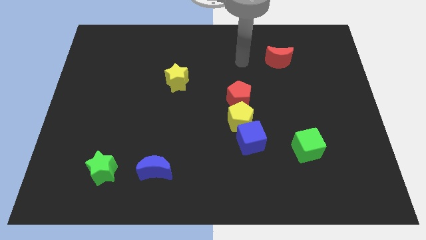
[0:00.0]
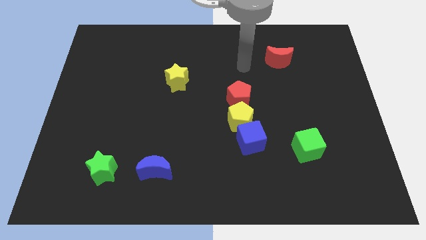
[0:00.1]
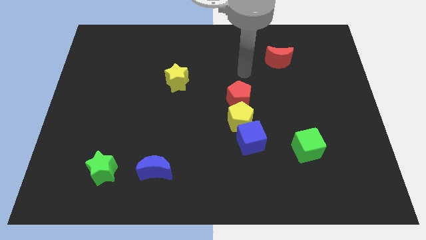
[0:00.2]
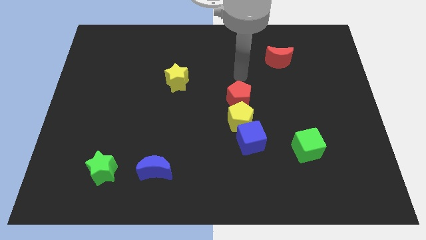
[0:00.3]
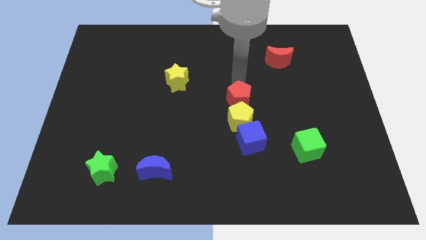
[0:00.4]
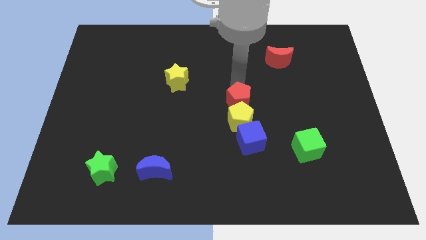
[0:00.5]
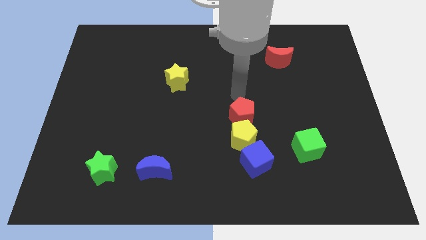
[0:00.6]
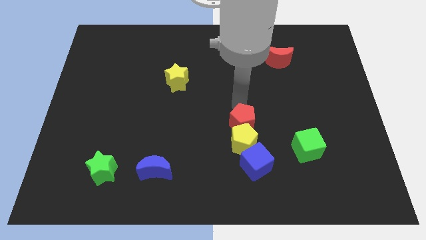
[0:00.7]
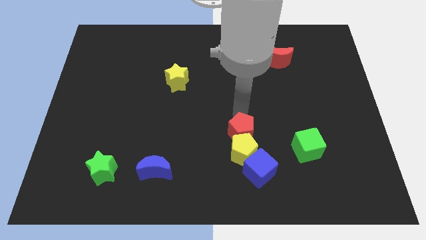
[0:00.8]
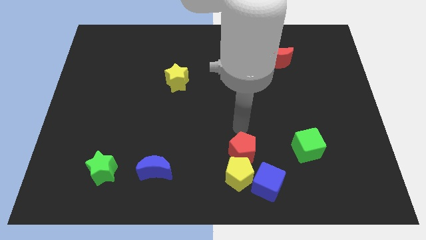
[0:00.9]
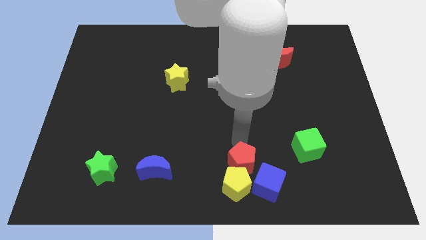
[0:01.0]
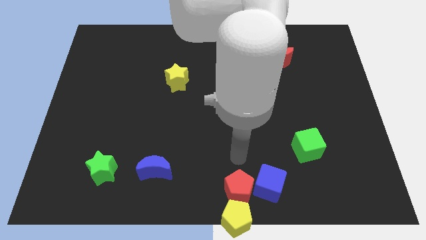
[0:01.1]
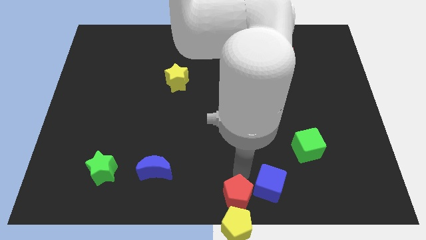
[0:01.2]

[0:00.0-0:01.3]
move the blue cube away from the yellow pentagon

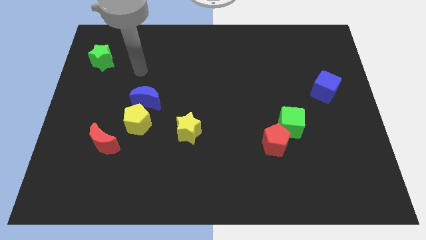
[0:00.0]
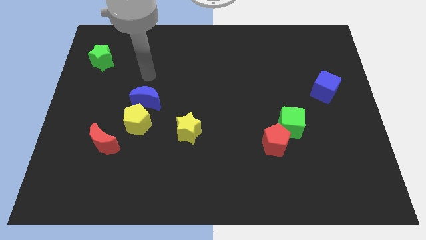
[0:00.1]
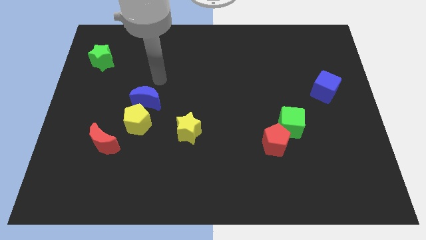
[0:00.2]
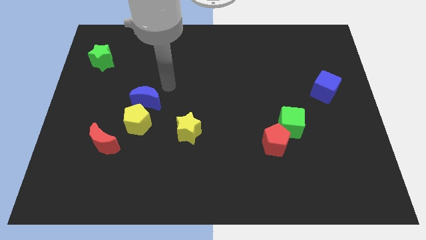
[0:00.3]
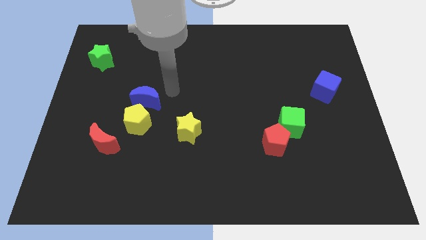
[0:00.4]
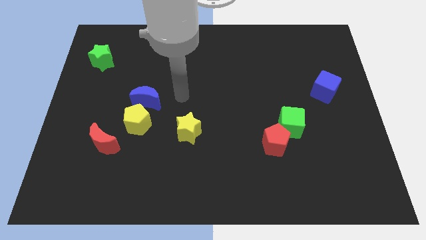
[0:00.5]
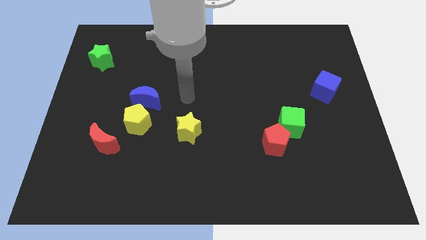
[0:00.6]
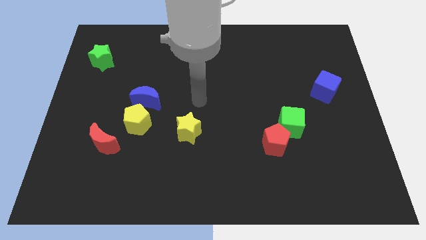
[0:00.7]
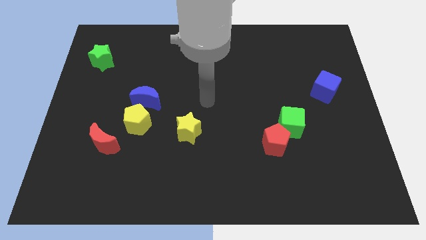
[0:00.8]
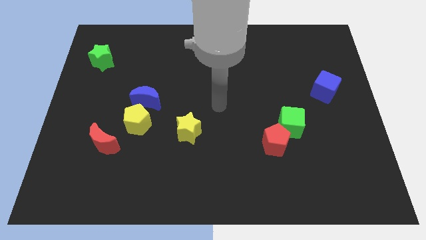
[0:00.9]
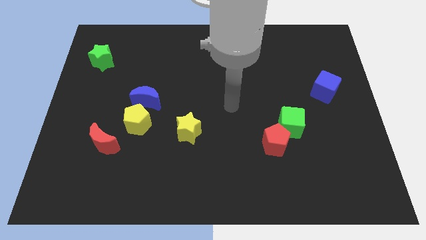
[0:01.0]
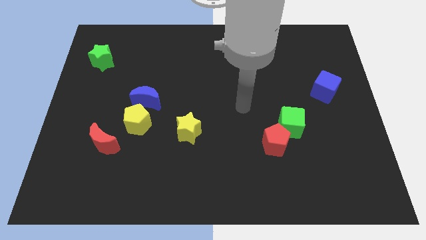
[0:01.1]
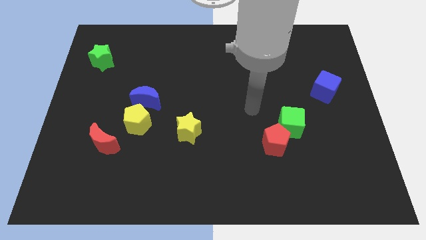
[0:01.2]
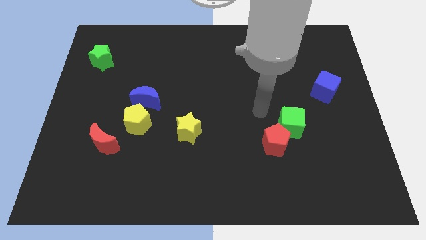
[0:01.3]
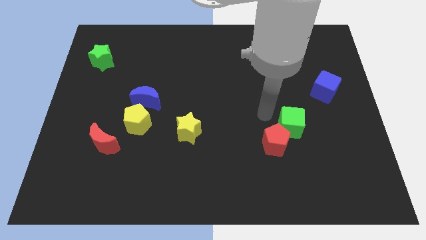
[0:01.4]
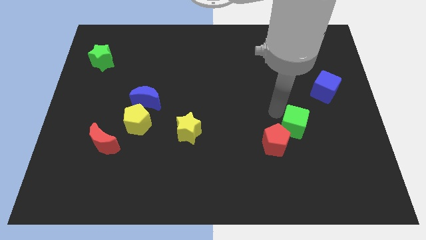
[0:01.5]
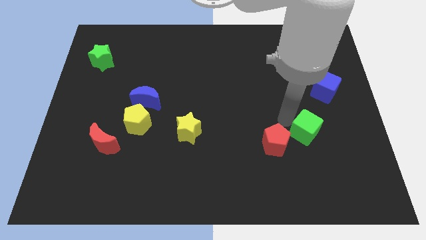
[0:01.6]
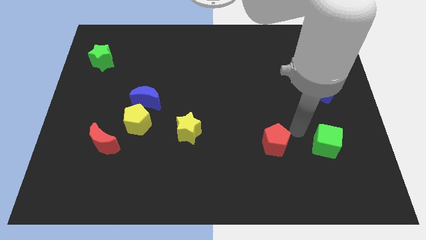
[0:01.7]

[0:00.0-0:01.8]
separate the red pentagon from the green cube

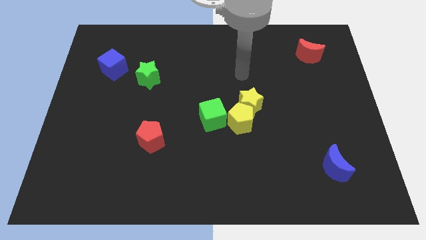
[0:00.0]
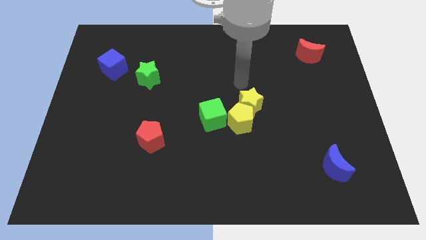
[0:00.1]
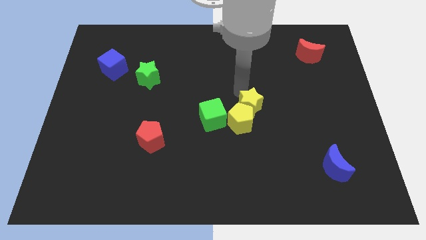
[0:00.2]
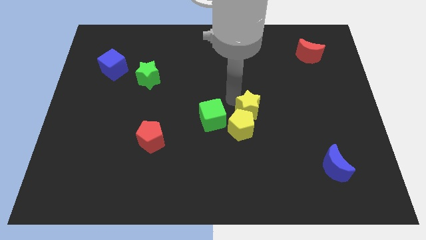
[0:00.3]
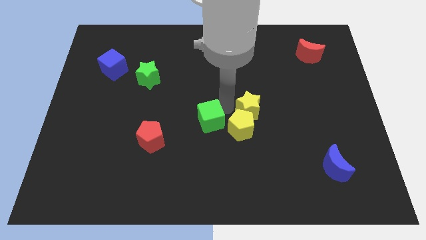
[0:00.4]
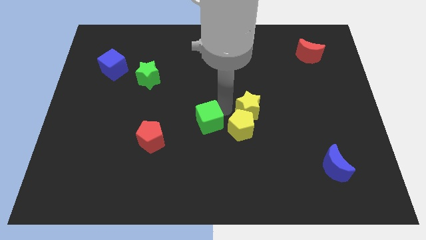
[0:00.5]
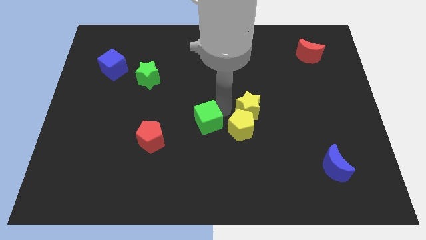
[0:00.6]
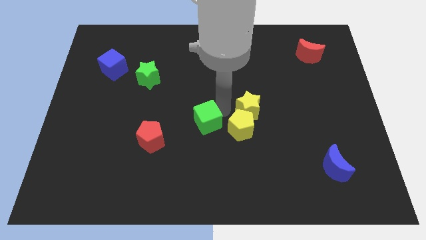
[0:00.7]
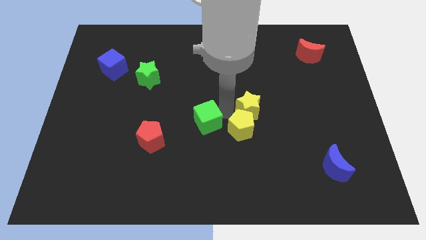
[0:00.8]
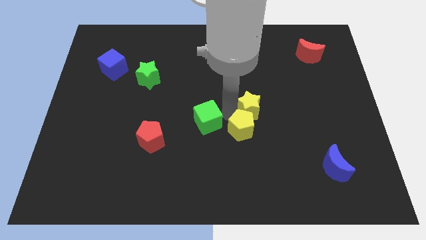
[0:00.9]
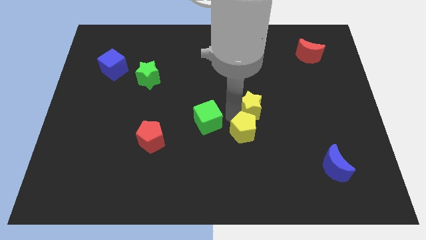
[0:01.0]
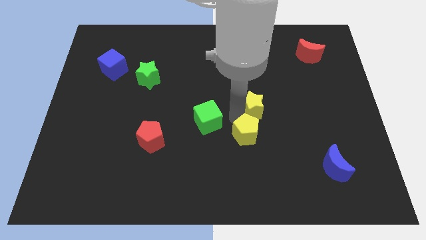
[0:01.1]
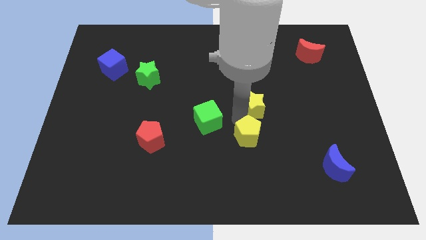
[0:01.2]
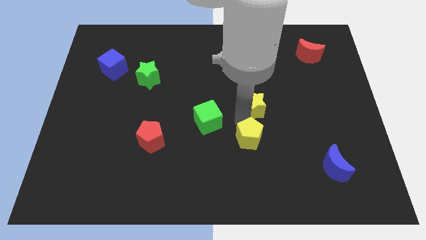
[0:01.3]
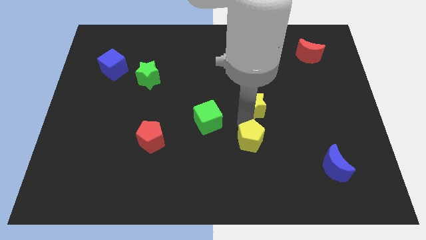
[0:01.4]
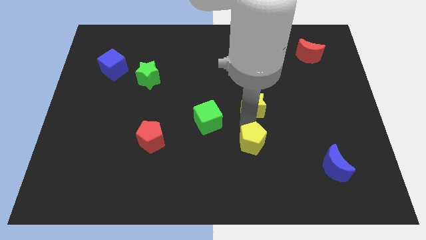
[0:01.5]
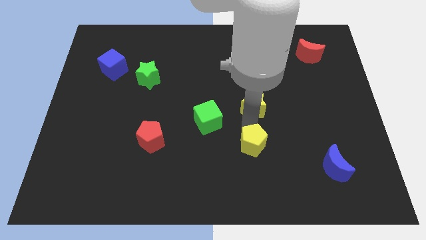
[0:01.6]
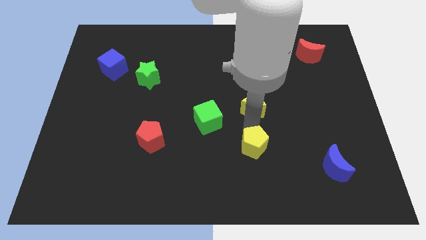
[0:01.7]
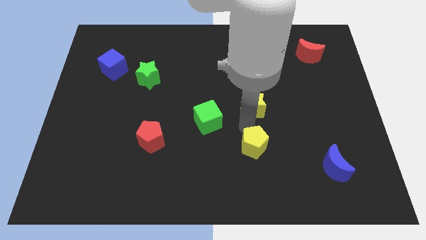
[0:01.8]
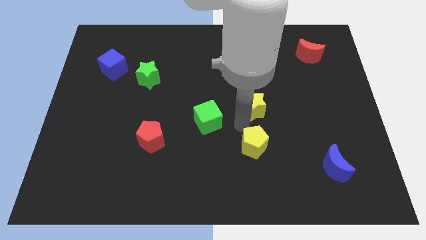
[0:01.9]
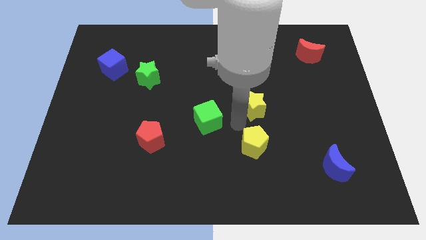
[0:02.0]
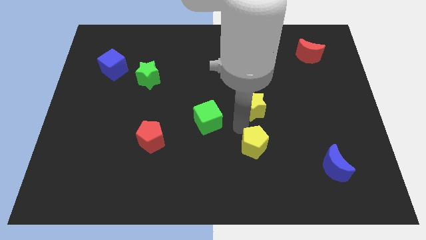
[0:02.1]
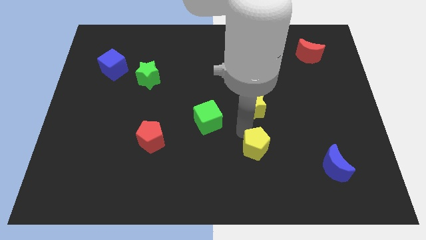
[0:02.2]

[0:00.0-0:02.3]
move the yellow pentagon away from the yellow star and green cube

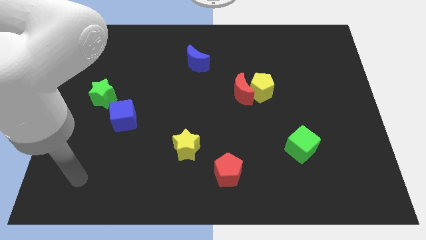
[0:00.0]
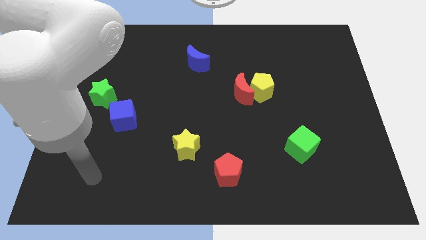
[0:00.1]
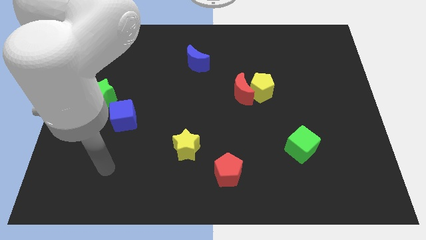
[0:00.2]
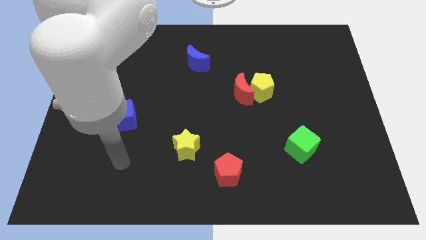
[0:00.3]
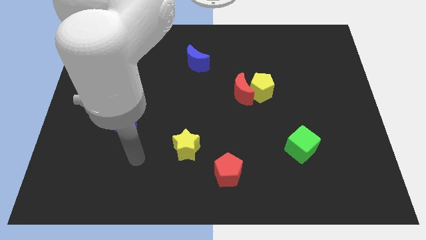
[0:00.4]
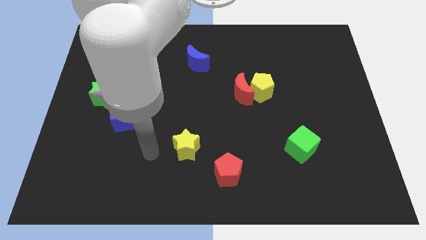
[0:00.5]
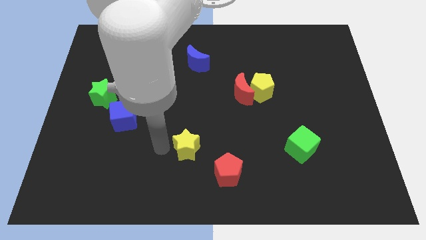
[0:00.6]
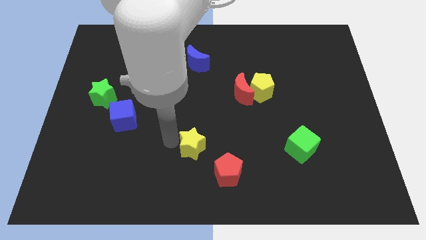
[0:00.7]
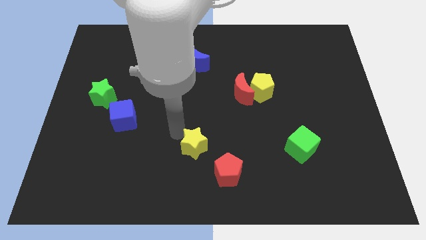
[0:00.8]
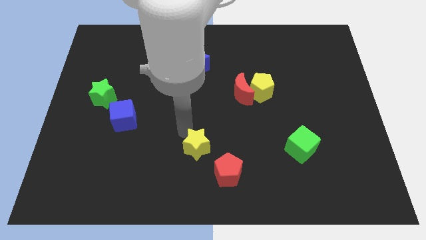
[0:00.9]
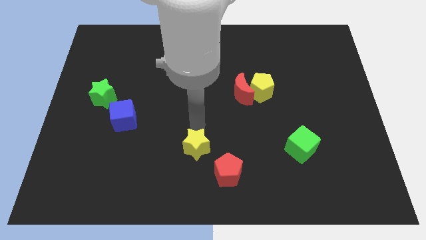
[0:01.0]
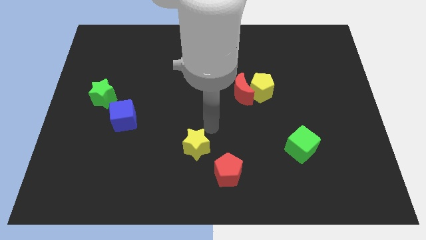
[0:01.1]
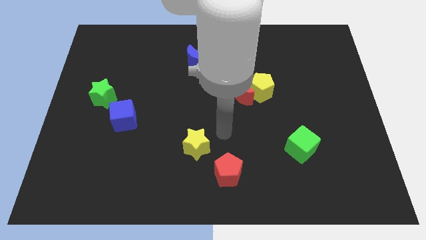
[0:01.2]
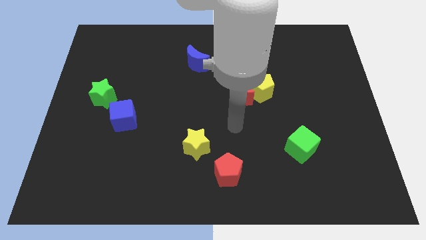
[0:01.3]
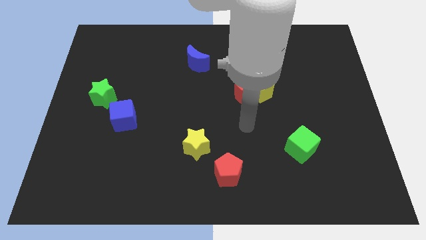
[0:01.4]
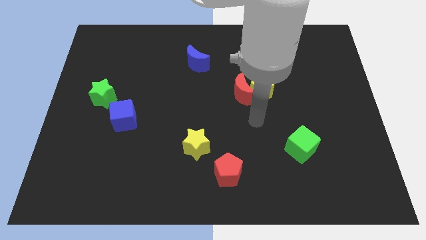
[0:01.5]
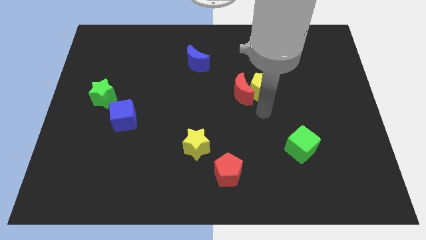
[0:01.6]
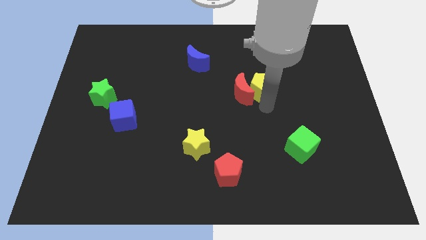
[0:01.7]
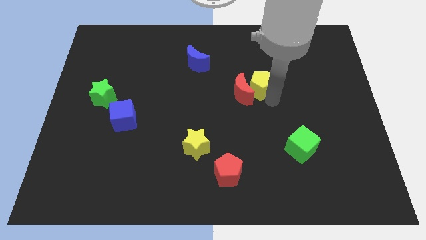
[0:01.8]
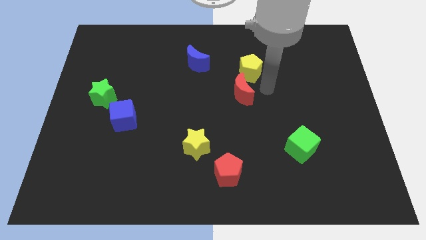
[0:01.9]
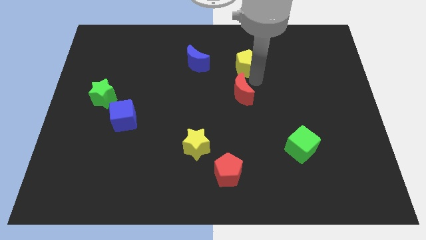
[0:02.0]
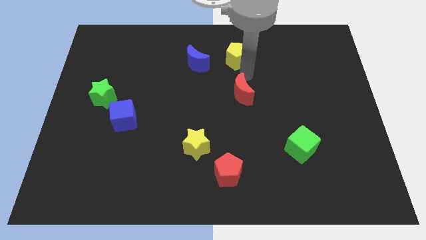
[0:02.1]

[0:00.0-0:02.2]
move the red moon away from the yellow pentagon

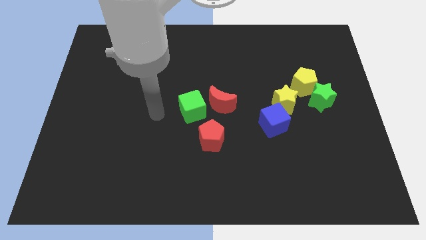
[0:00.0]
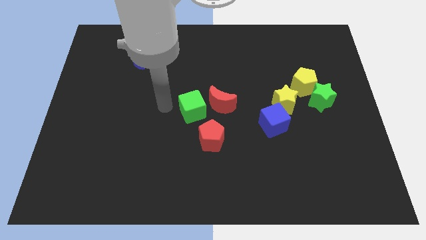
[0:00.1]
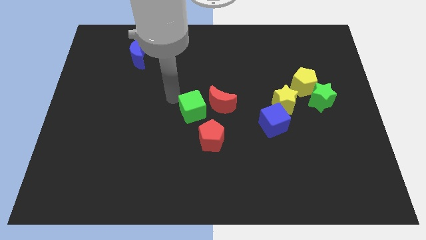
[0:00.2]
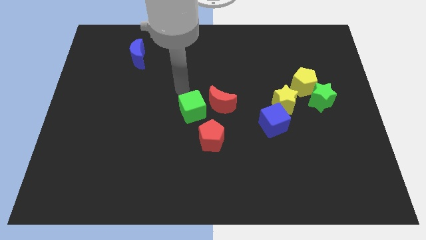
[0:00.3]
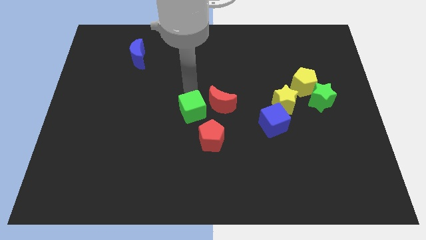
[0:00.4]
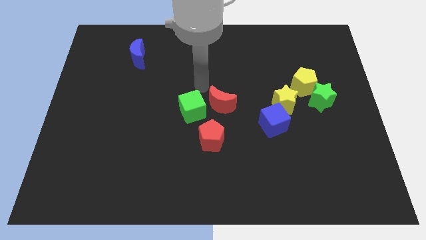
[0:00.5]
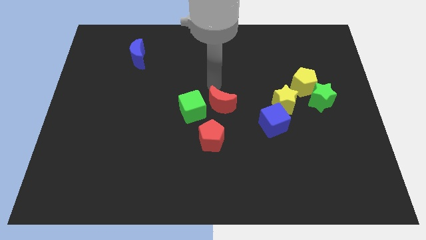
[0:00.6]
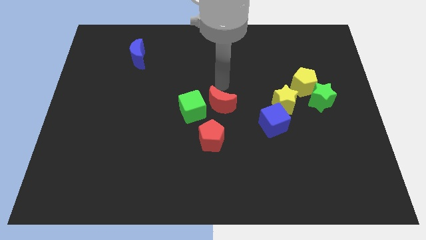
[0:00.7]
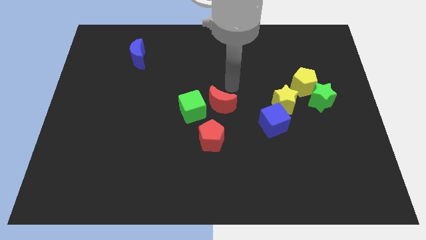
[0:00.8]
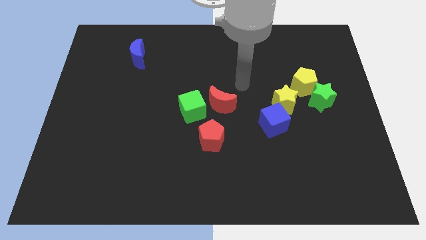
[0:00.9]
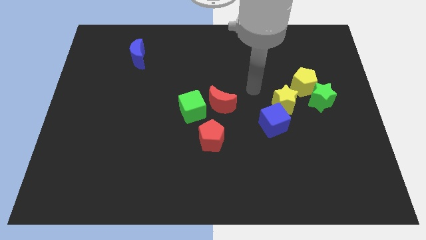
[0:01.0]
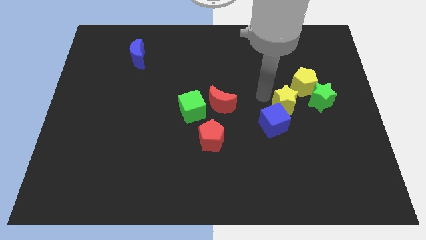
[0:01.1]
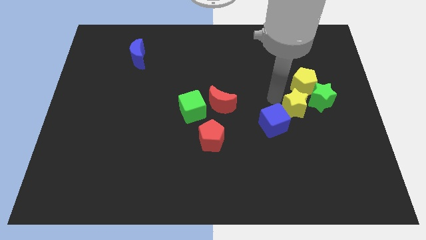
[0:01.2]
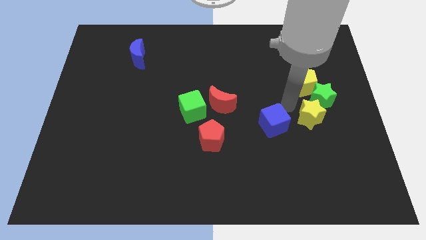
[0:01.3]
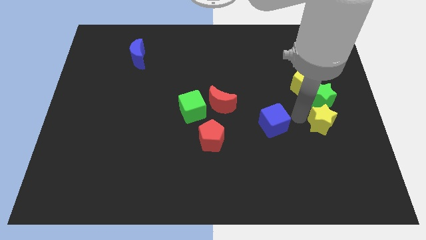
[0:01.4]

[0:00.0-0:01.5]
pull the blue cube apart from the yellow star

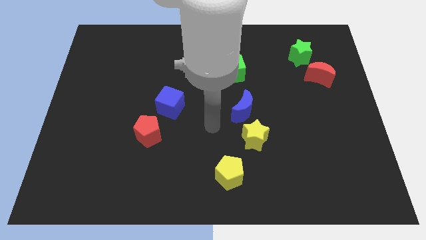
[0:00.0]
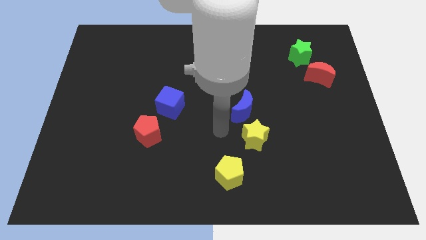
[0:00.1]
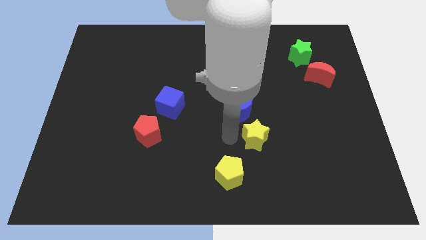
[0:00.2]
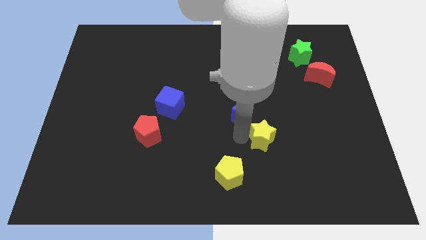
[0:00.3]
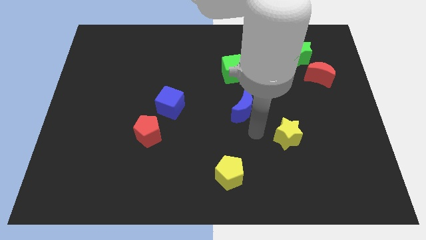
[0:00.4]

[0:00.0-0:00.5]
pull the blue moon apart from the yellow star
